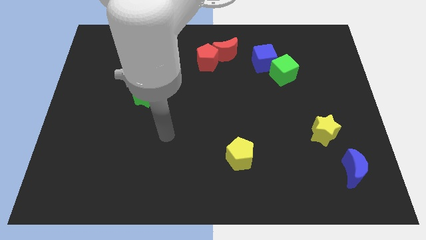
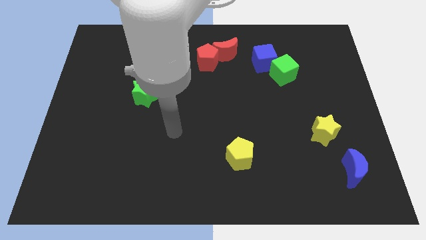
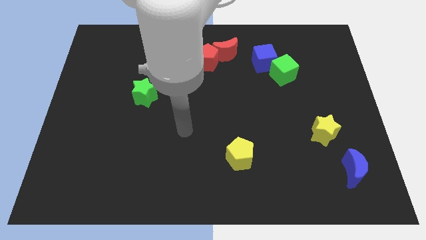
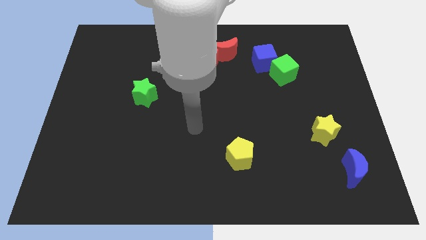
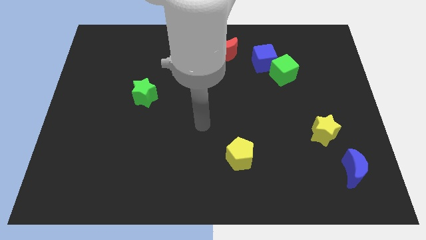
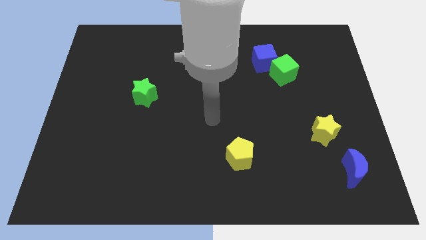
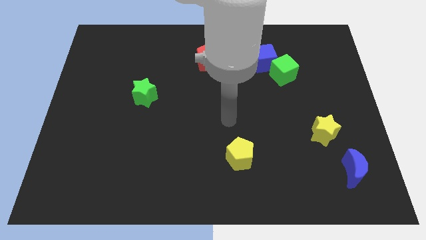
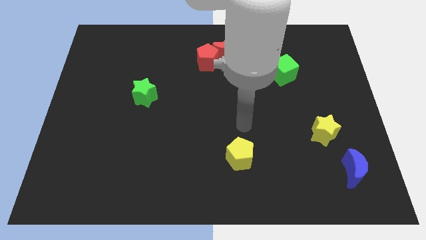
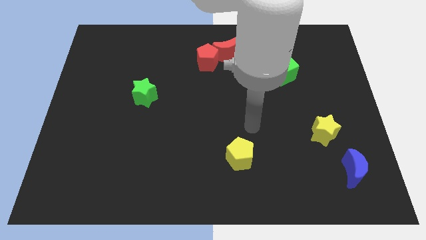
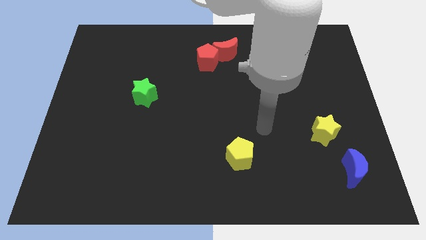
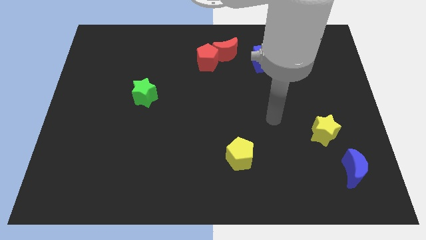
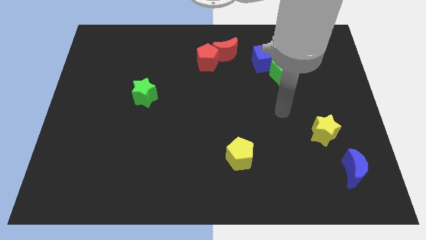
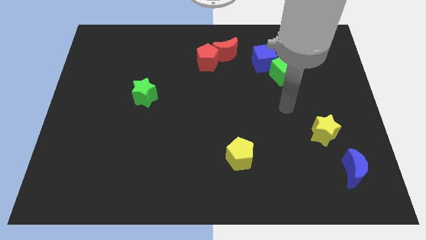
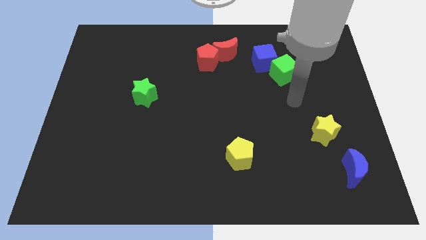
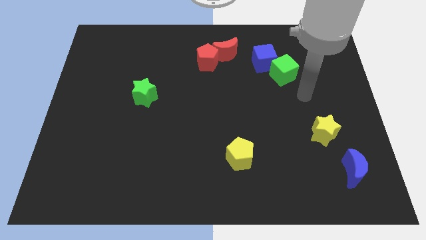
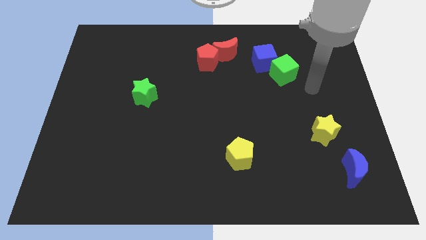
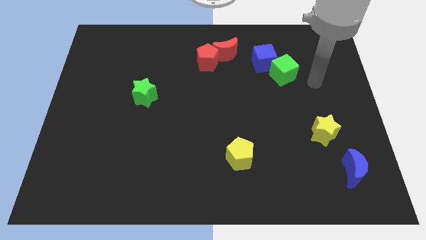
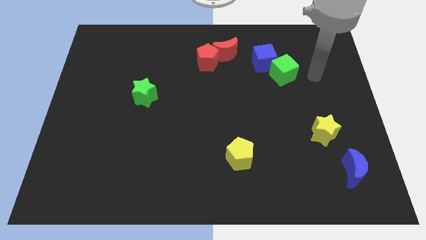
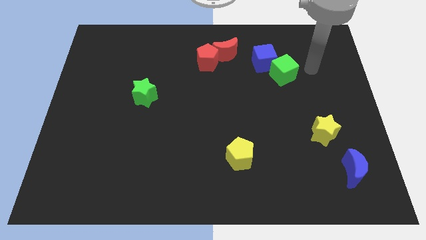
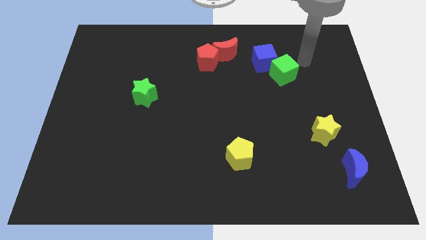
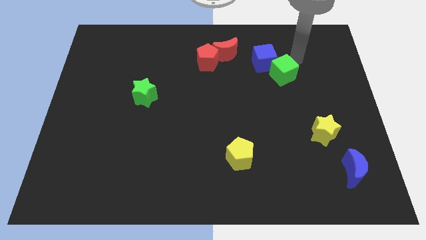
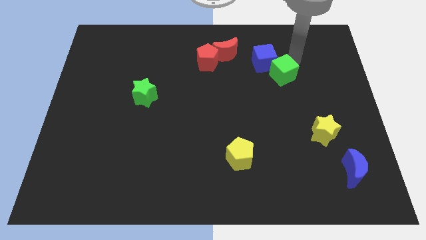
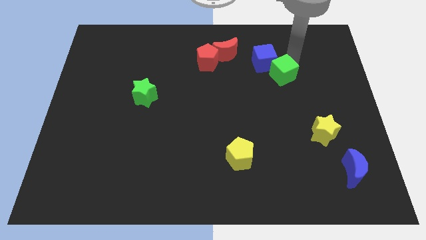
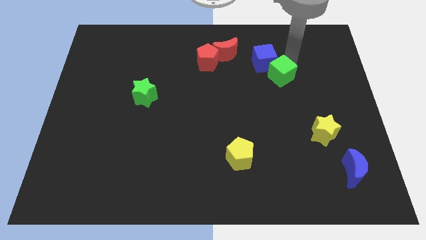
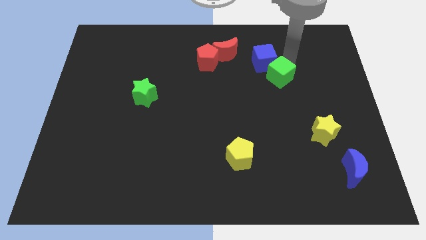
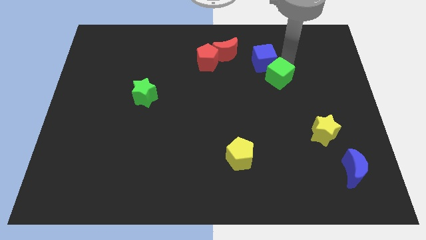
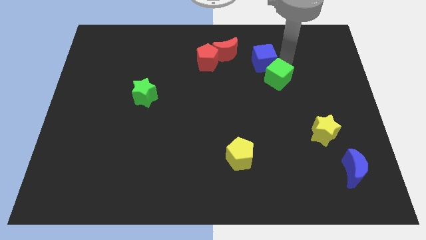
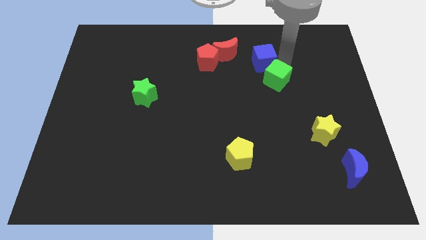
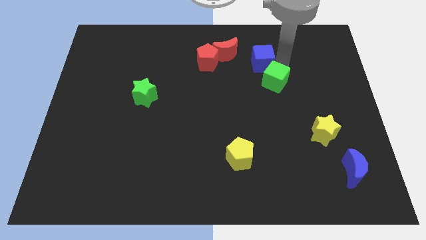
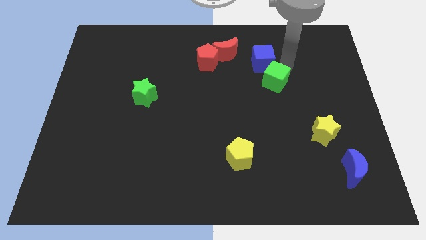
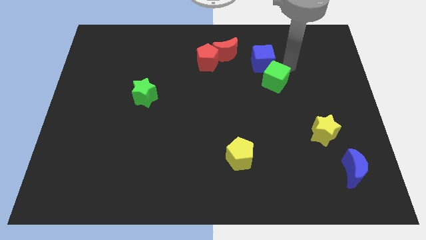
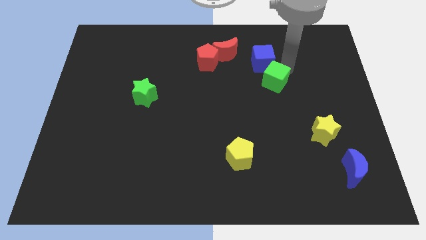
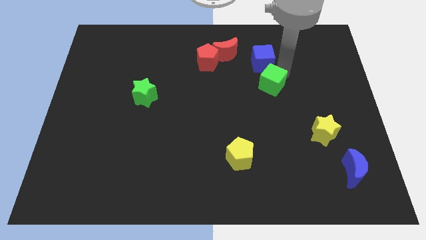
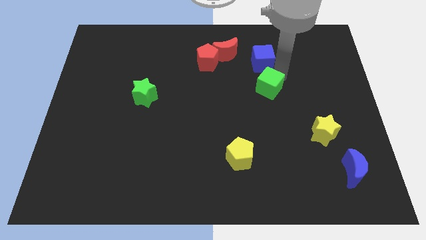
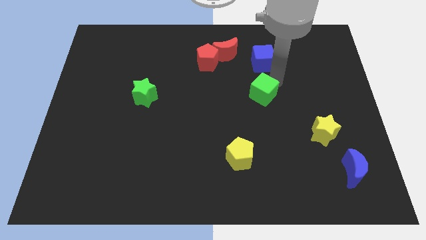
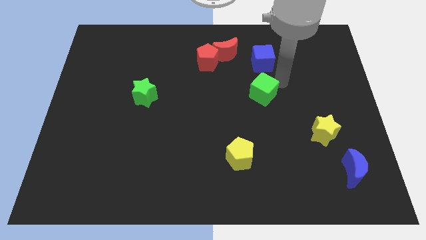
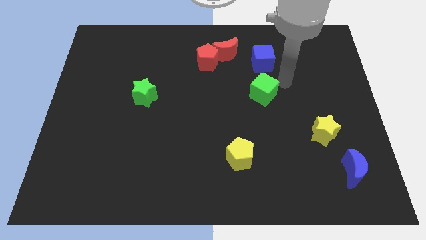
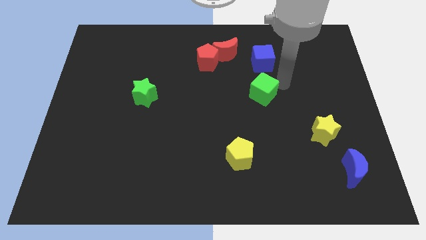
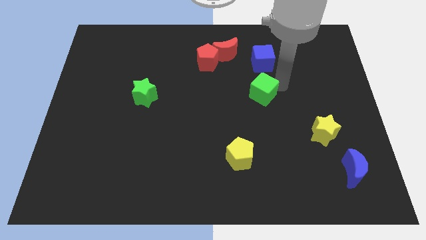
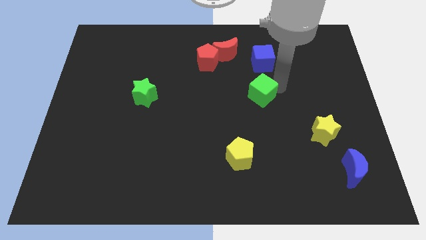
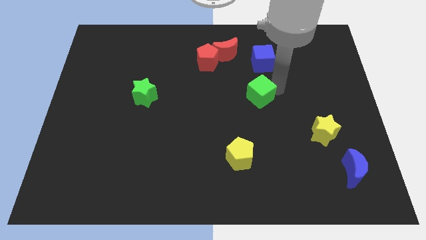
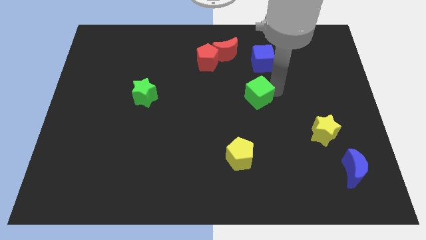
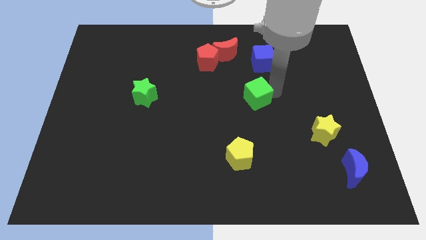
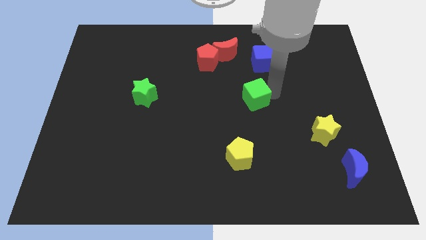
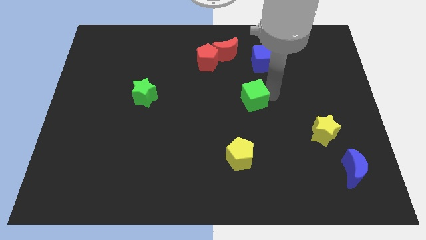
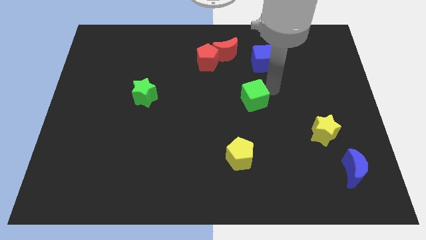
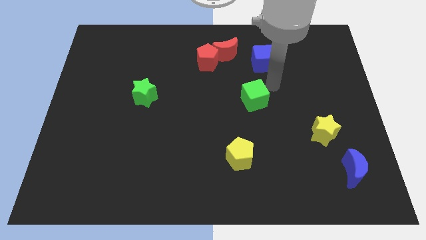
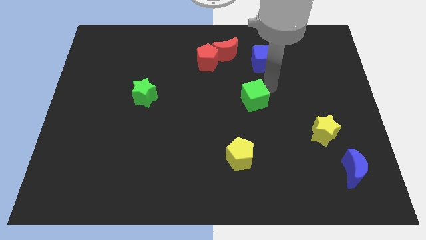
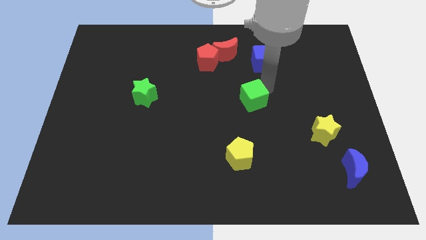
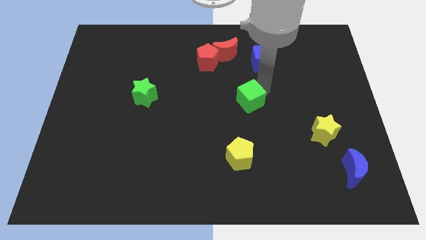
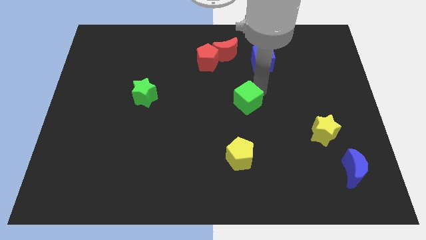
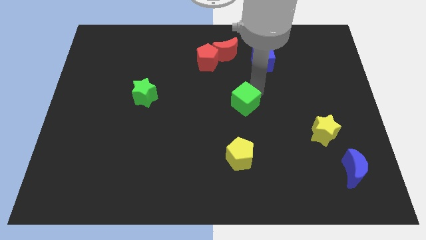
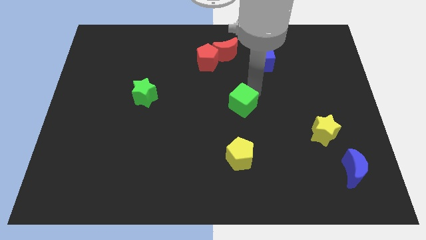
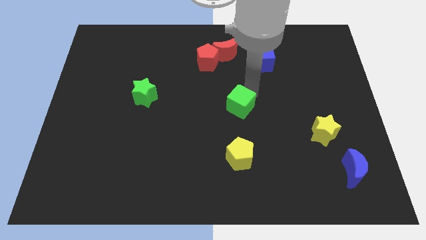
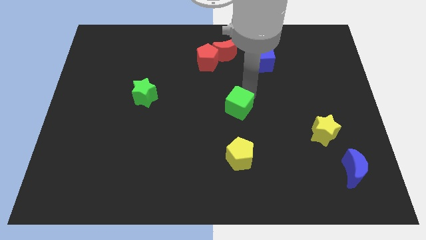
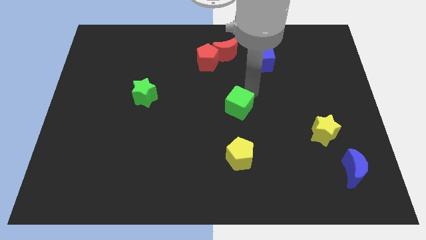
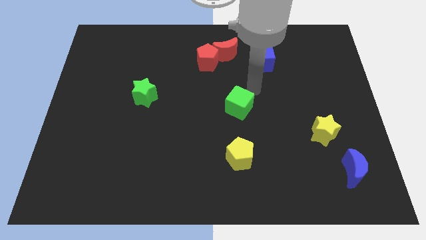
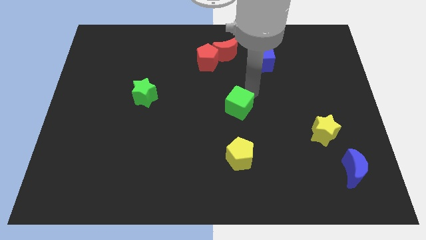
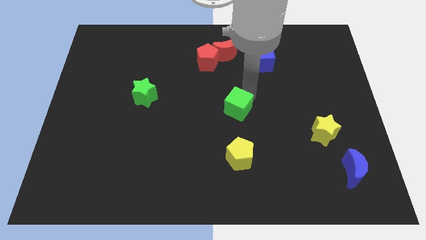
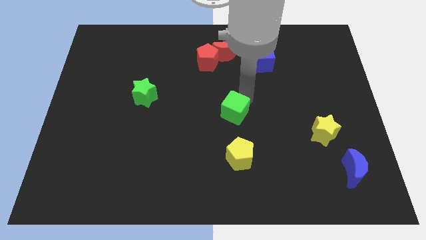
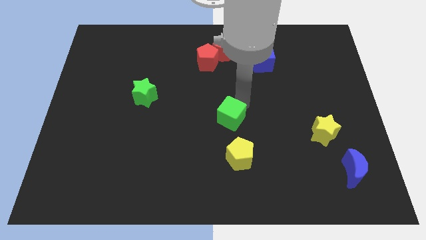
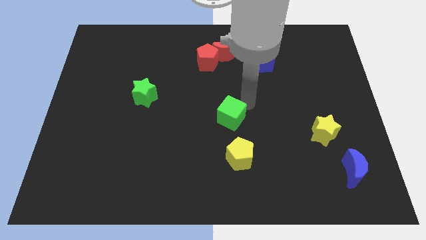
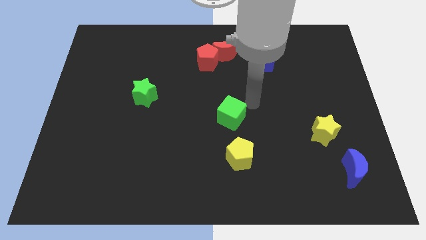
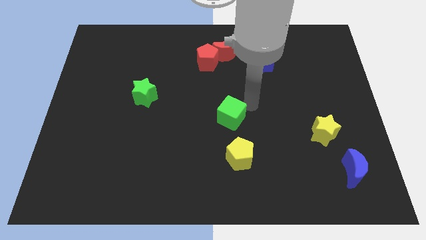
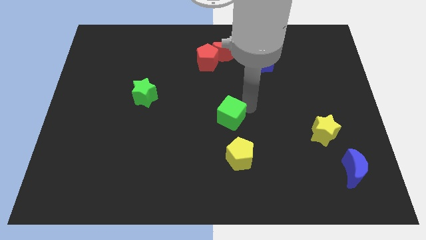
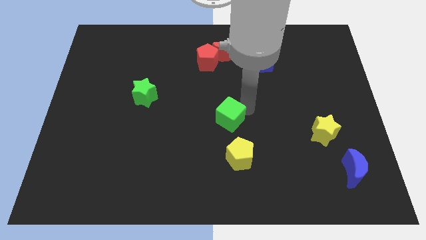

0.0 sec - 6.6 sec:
push the green cube downwards and left diagonally

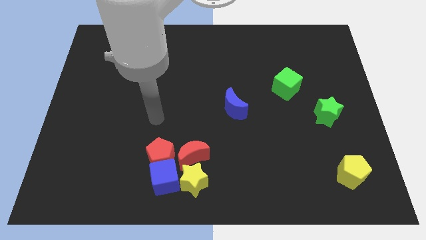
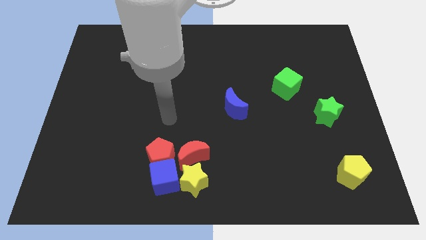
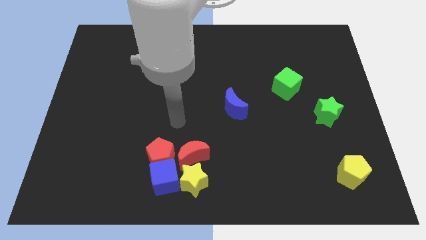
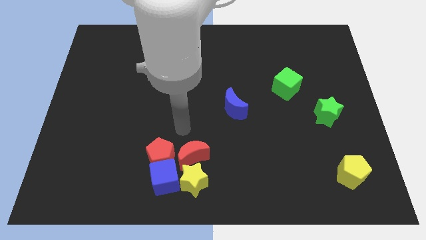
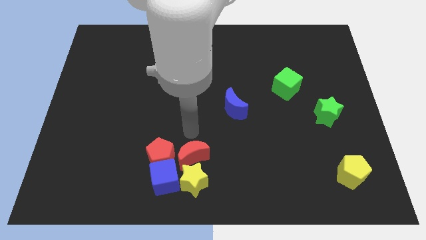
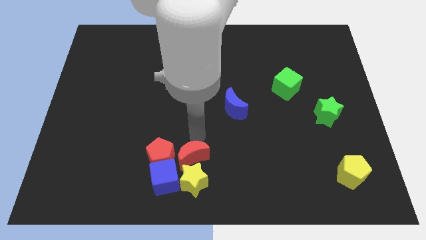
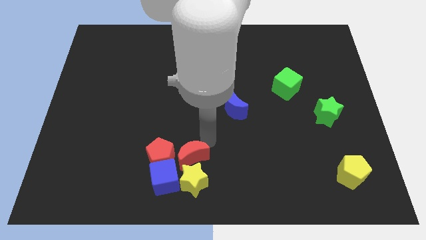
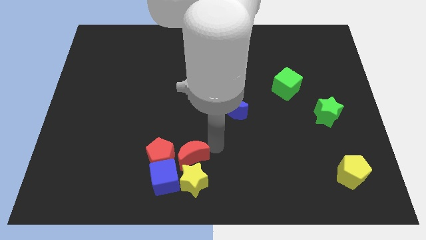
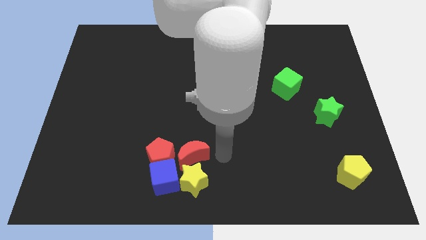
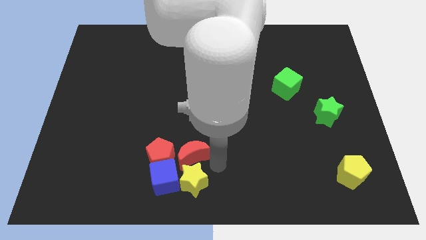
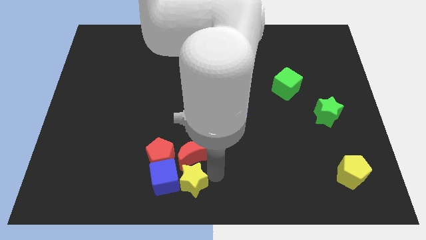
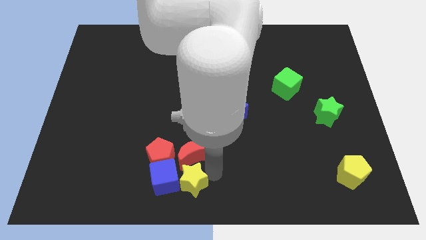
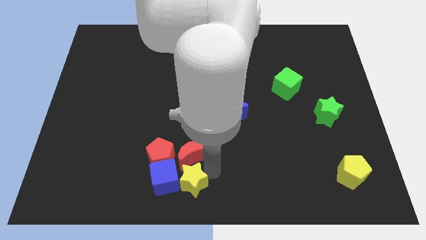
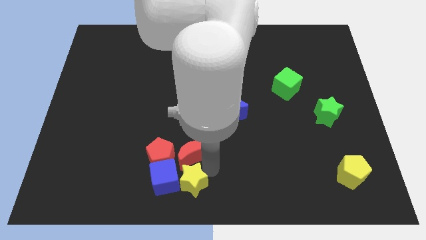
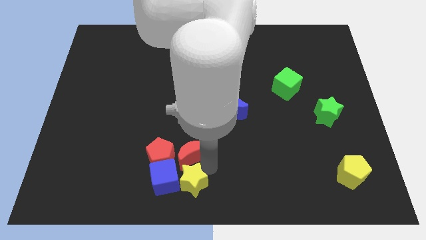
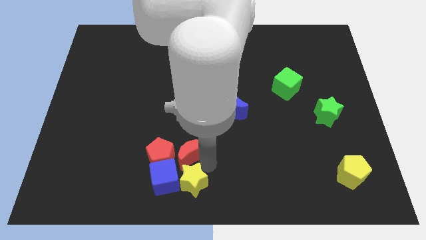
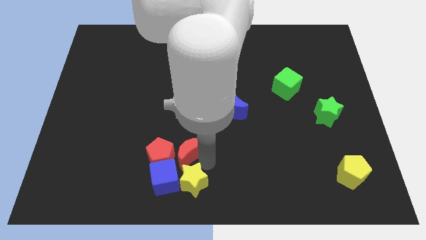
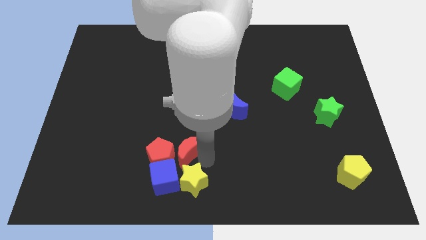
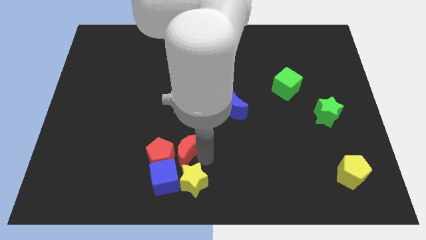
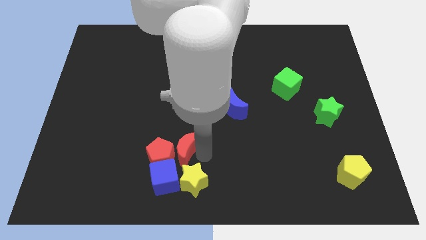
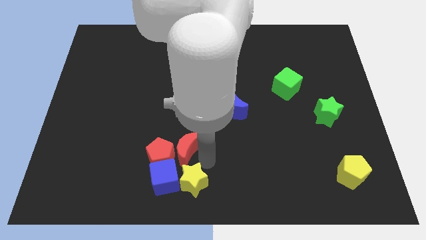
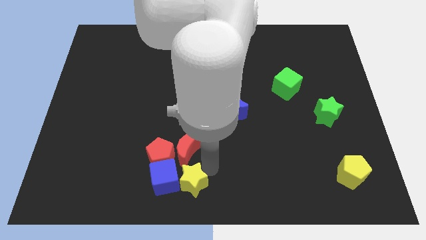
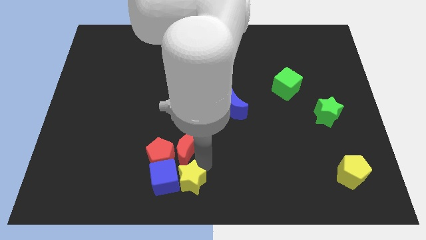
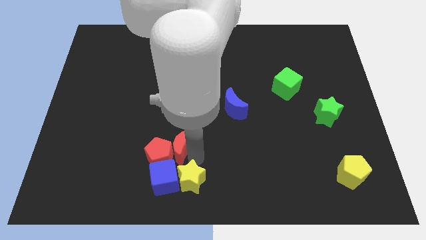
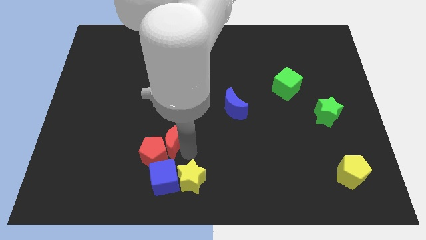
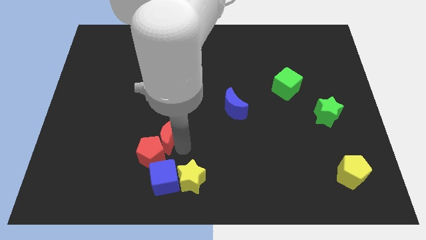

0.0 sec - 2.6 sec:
slightly move the red moon diagonally up and left
